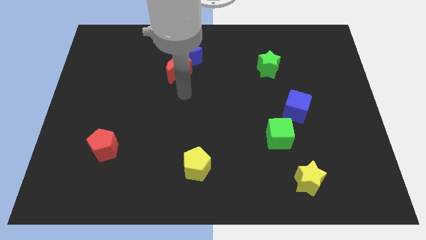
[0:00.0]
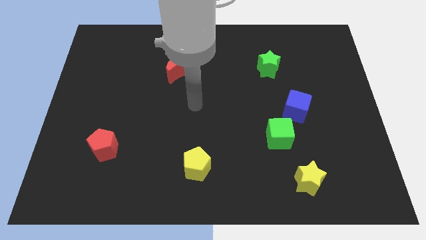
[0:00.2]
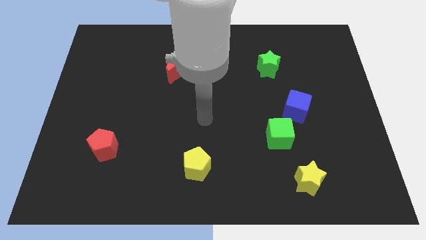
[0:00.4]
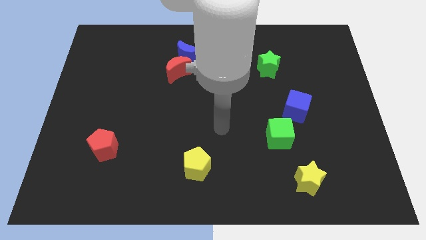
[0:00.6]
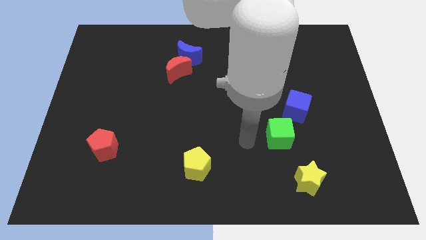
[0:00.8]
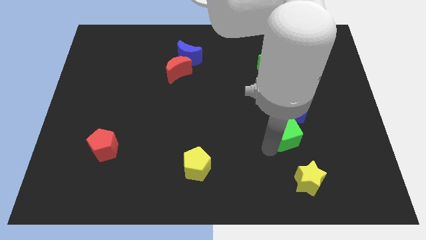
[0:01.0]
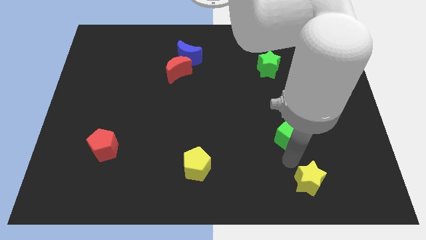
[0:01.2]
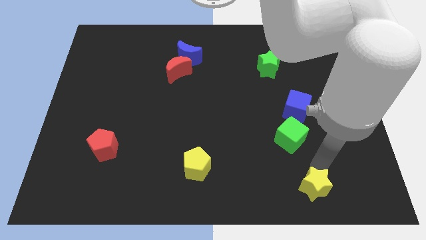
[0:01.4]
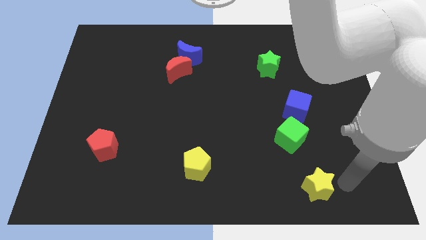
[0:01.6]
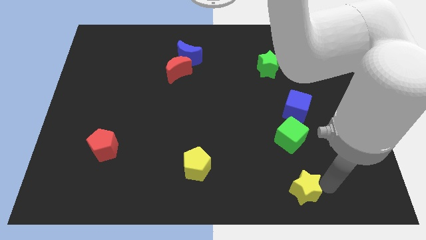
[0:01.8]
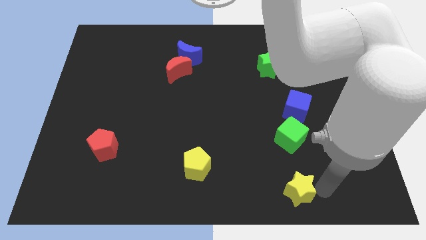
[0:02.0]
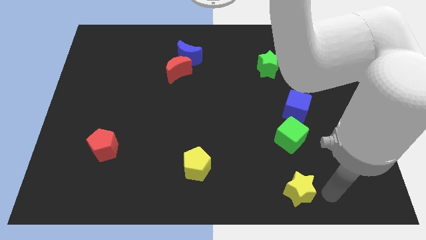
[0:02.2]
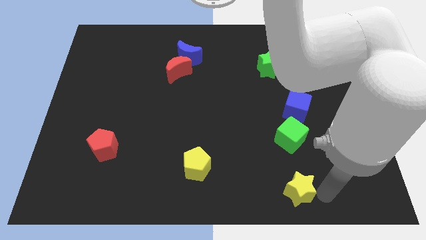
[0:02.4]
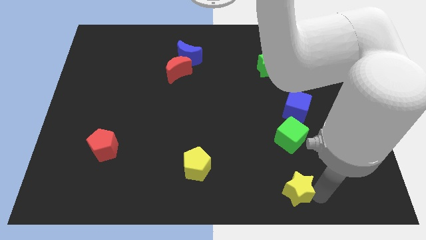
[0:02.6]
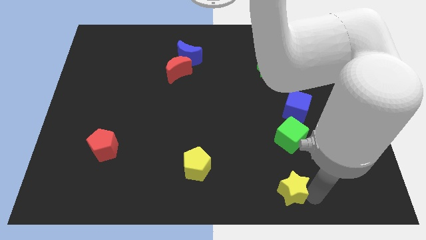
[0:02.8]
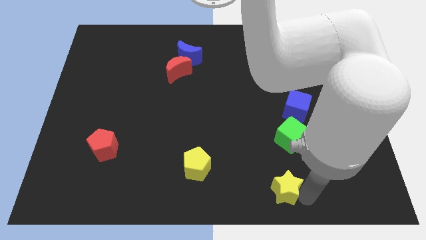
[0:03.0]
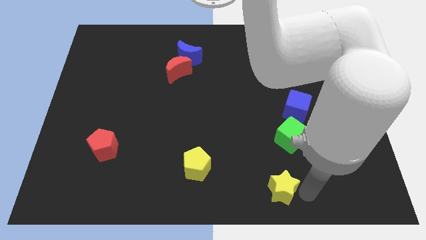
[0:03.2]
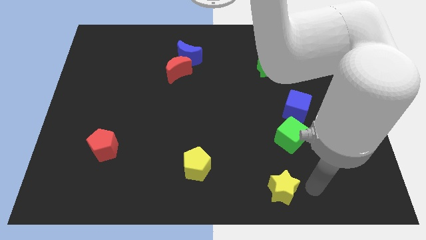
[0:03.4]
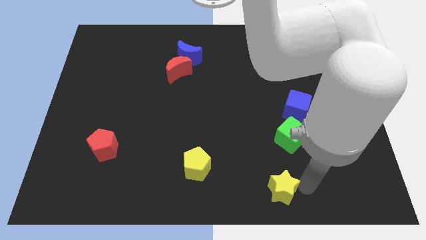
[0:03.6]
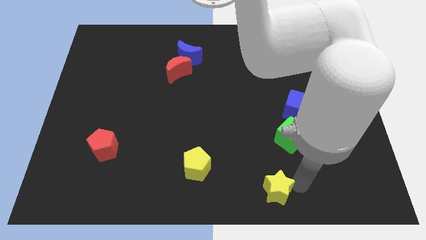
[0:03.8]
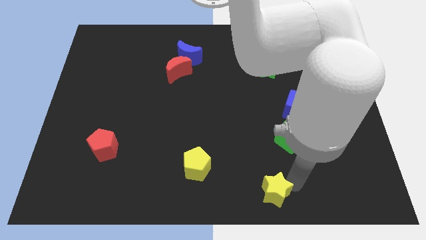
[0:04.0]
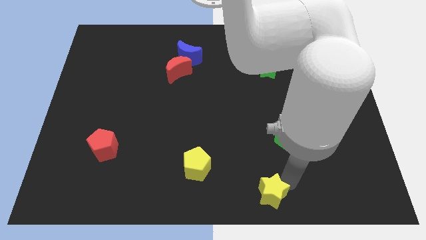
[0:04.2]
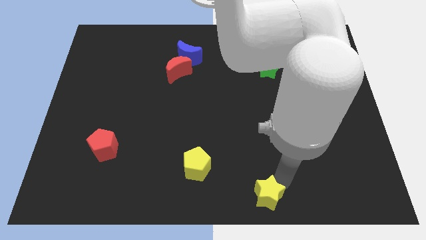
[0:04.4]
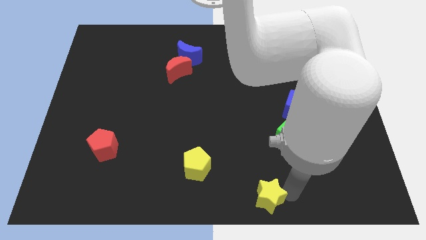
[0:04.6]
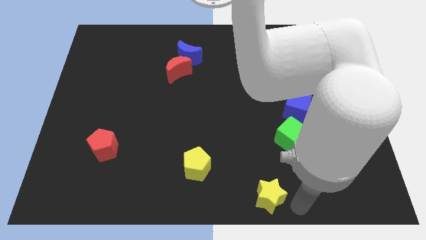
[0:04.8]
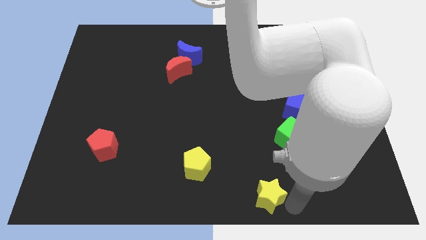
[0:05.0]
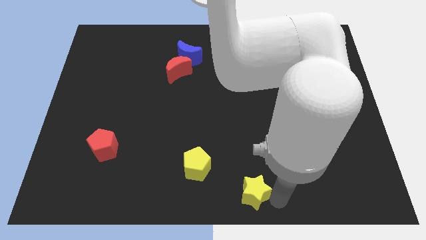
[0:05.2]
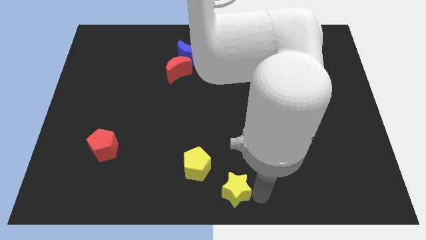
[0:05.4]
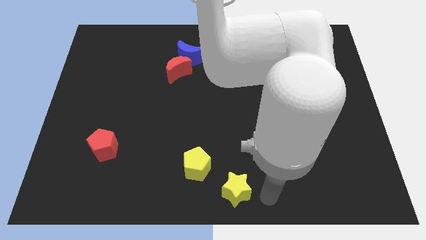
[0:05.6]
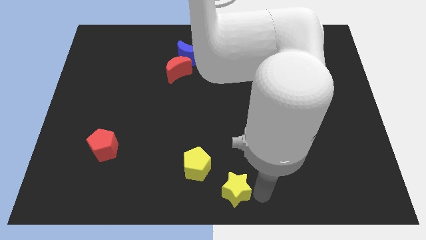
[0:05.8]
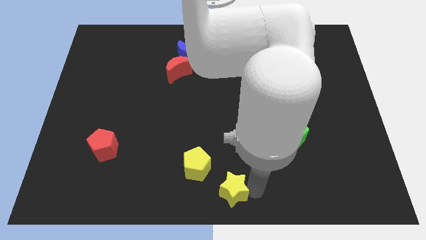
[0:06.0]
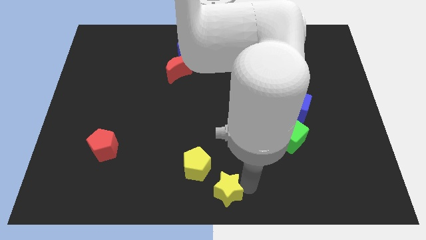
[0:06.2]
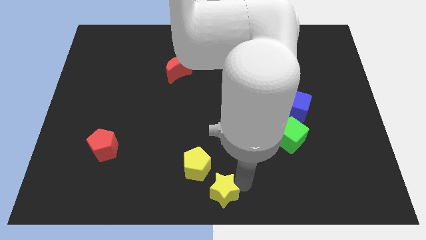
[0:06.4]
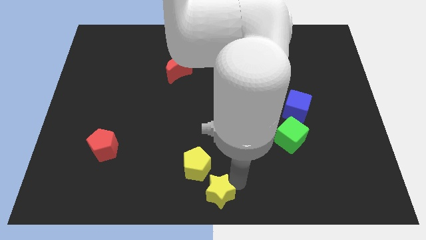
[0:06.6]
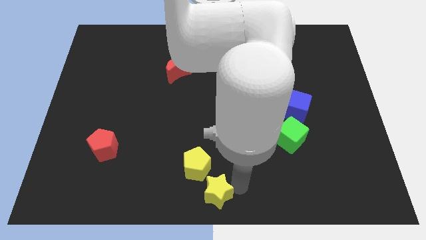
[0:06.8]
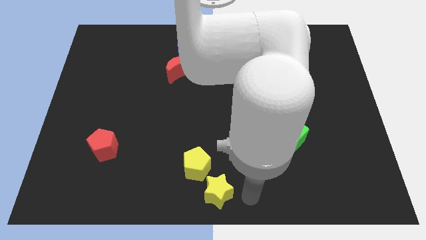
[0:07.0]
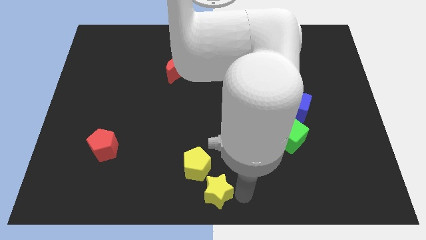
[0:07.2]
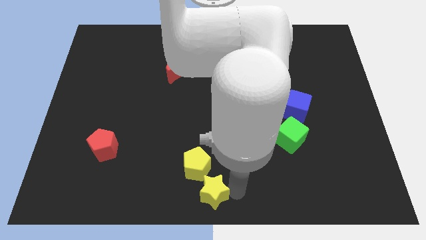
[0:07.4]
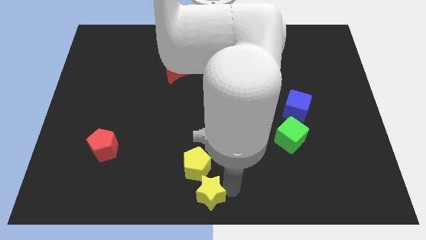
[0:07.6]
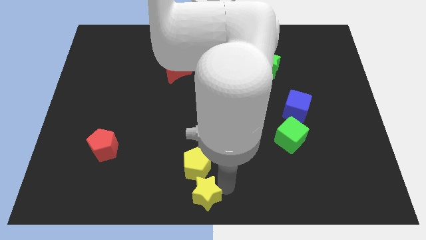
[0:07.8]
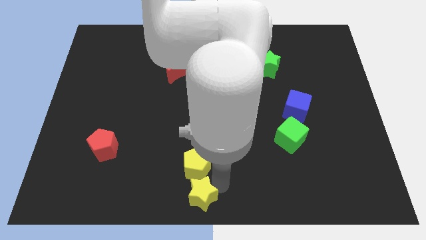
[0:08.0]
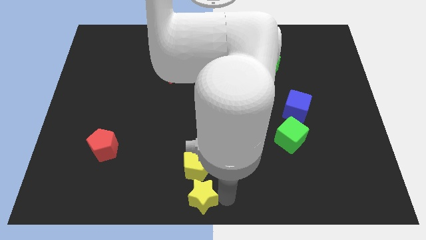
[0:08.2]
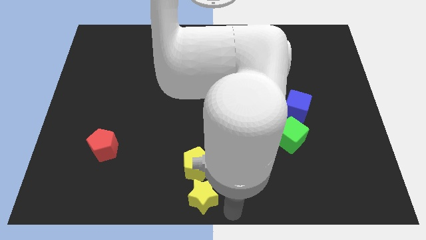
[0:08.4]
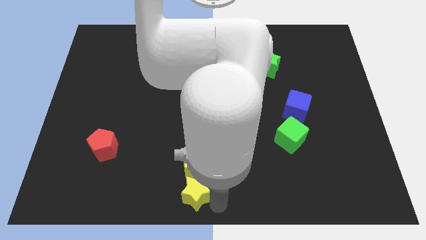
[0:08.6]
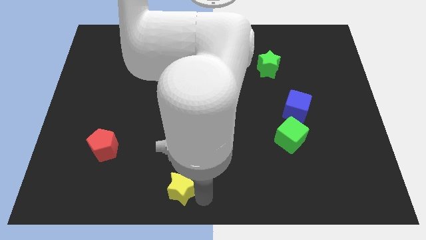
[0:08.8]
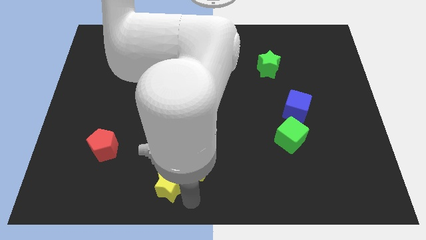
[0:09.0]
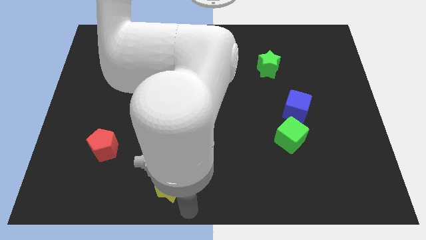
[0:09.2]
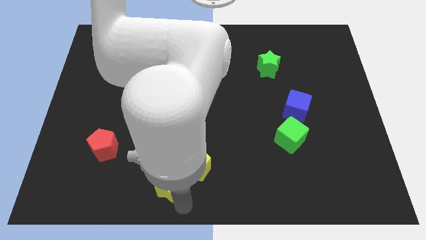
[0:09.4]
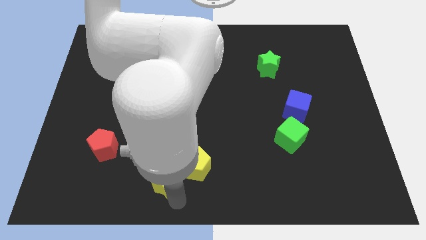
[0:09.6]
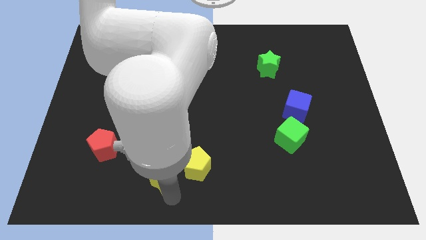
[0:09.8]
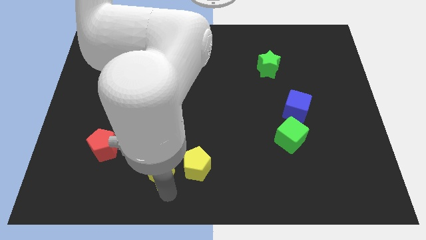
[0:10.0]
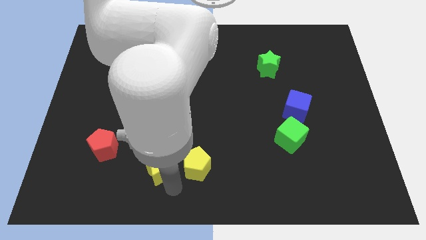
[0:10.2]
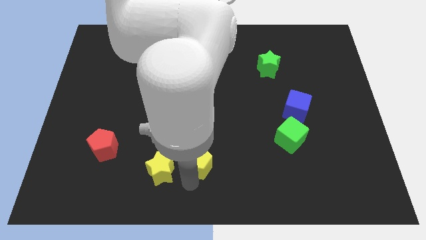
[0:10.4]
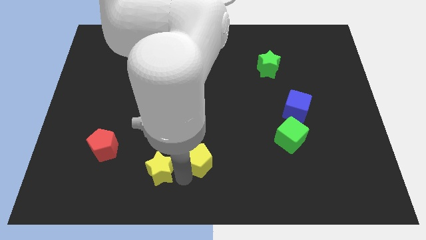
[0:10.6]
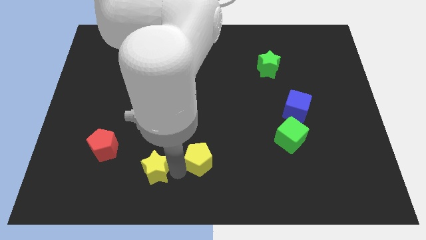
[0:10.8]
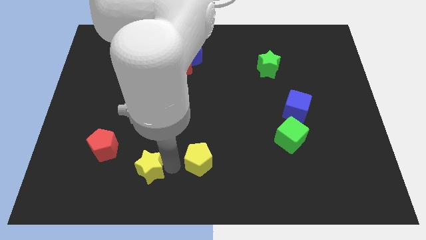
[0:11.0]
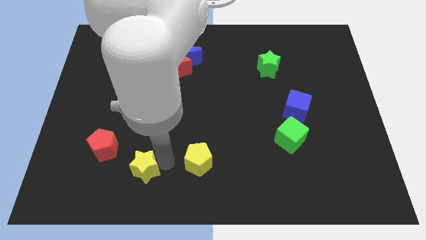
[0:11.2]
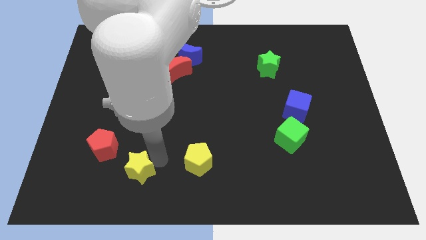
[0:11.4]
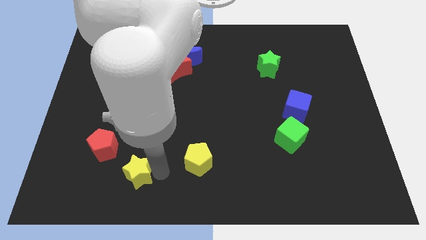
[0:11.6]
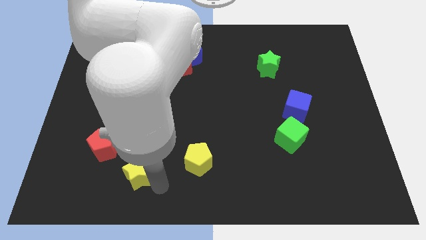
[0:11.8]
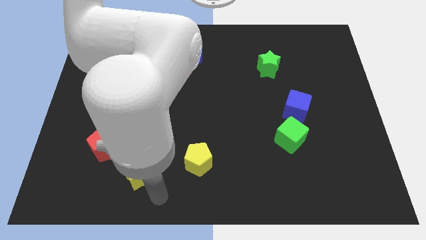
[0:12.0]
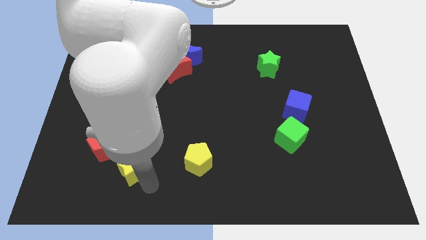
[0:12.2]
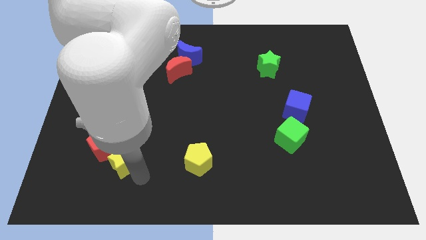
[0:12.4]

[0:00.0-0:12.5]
push the yellow star close to the red pentagon

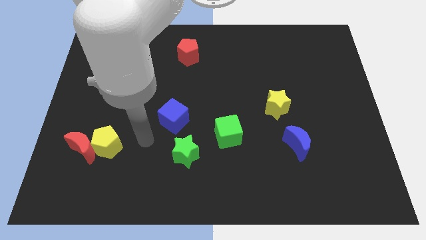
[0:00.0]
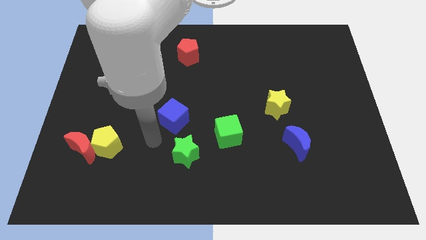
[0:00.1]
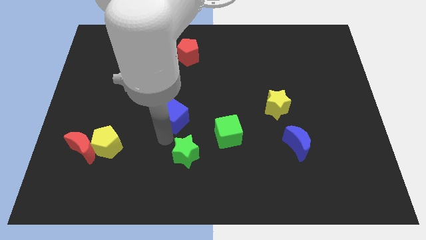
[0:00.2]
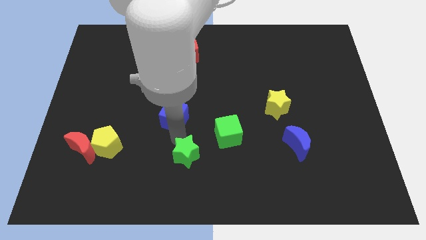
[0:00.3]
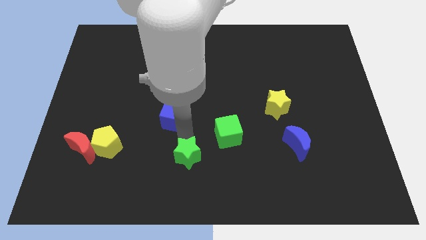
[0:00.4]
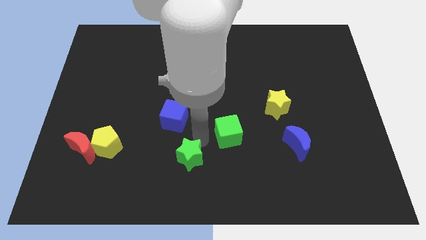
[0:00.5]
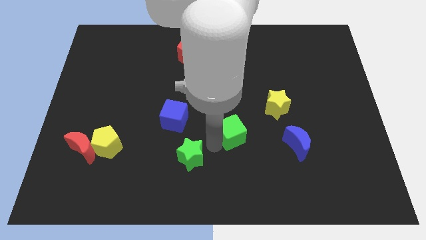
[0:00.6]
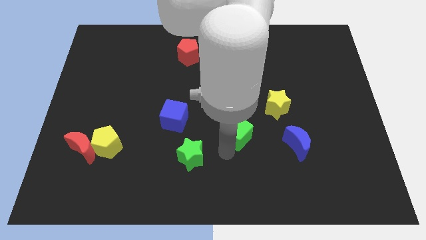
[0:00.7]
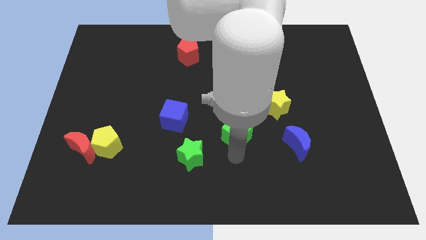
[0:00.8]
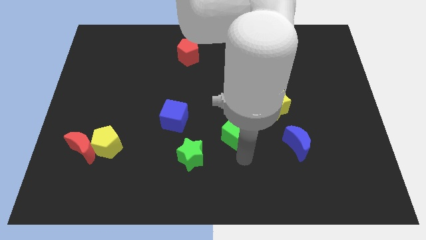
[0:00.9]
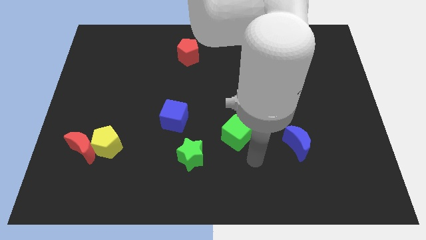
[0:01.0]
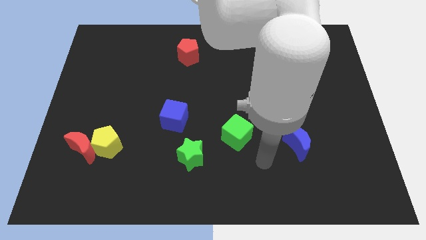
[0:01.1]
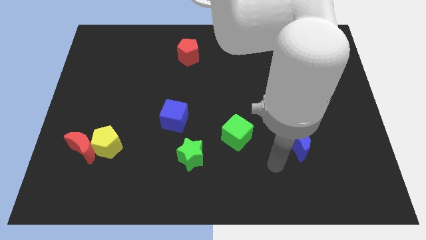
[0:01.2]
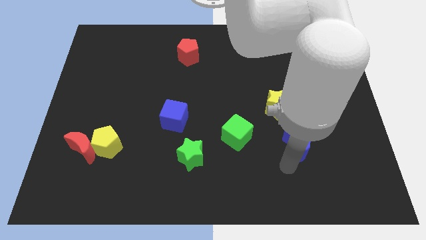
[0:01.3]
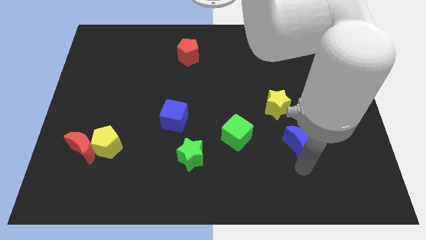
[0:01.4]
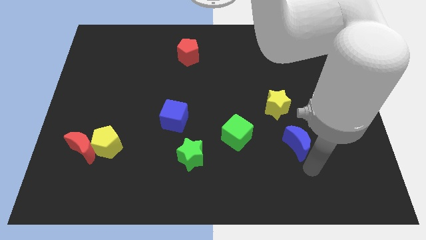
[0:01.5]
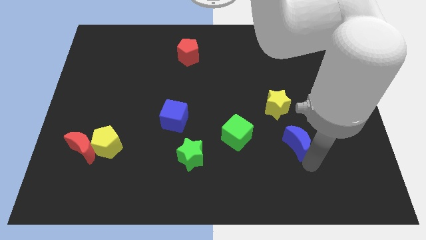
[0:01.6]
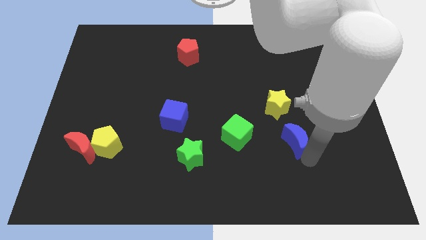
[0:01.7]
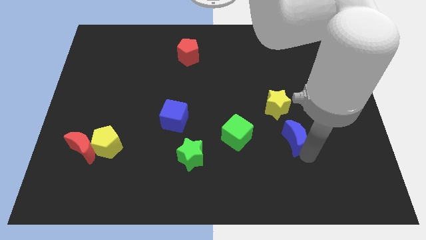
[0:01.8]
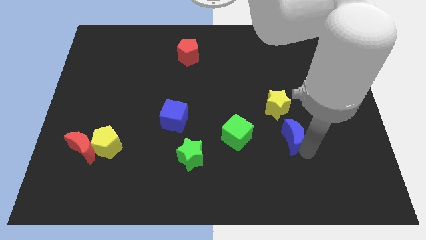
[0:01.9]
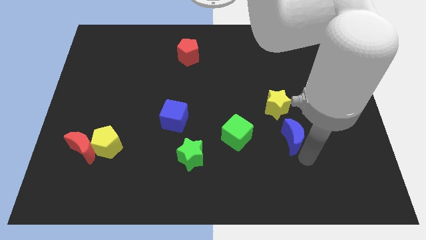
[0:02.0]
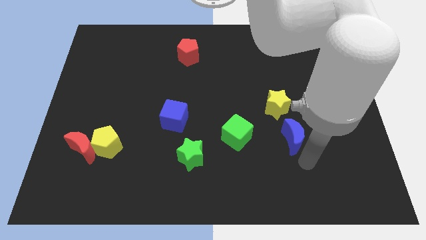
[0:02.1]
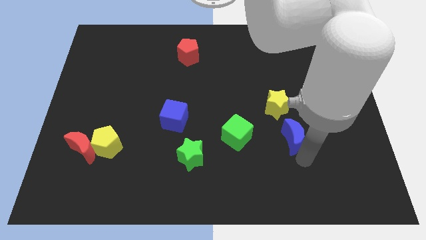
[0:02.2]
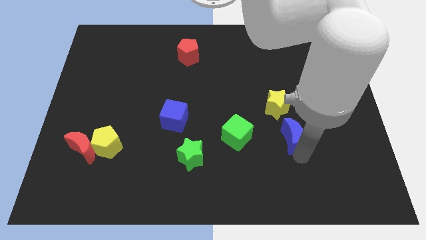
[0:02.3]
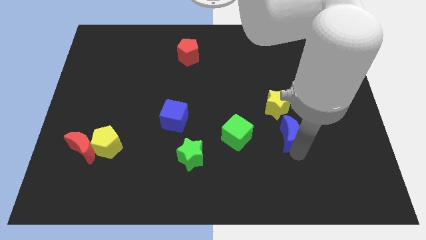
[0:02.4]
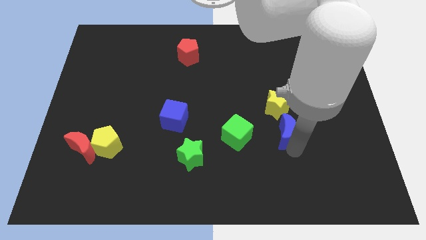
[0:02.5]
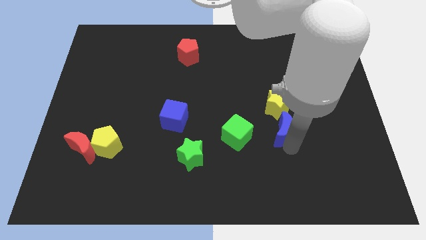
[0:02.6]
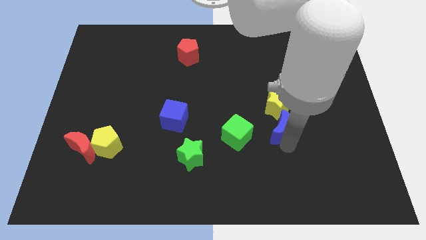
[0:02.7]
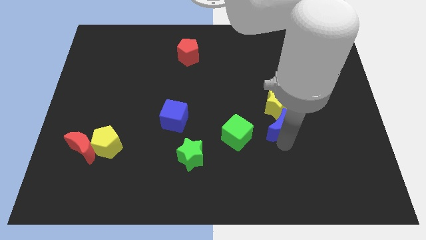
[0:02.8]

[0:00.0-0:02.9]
push the blue moon towards the yellow star
